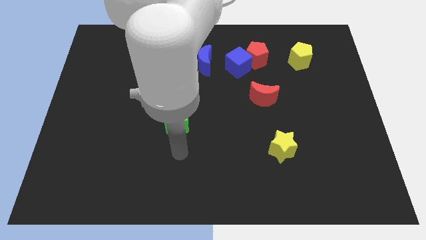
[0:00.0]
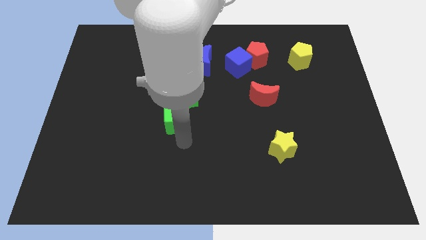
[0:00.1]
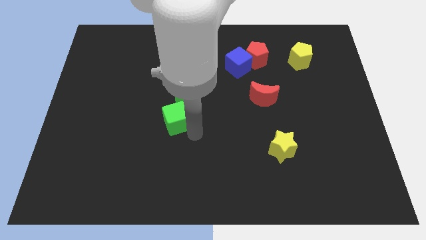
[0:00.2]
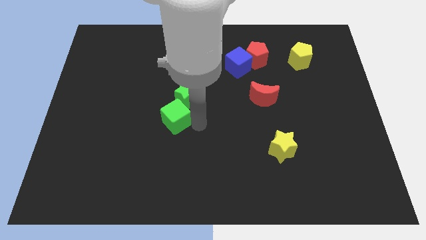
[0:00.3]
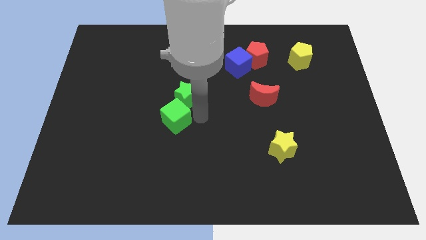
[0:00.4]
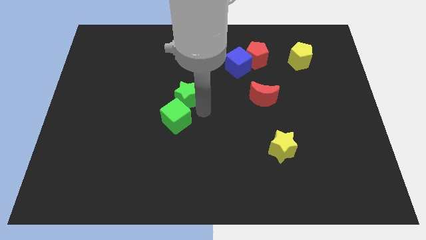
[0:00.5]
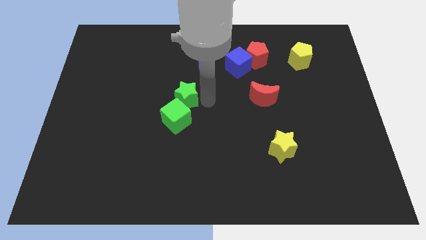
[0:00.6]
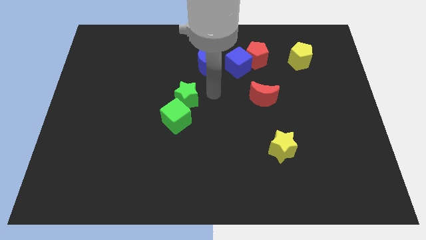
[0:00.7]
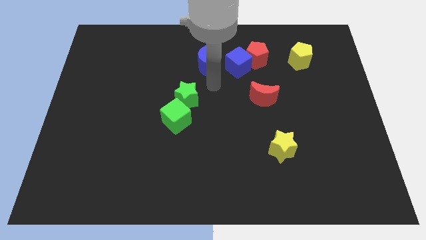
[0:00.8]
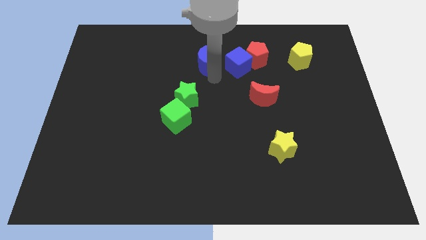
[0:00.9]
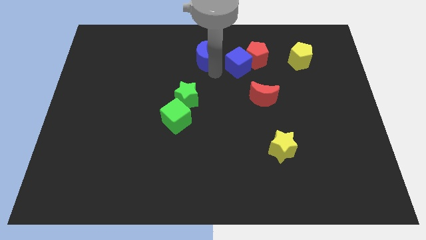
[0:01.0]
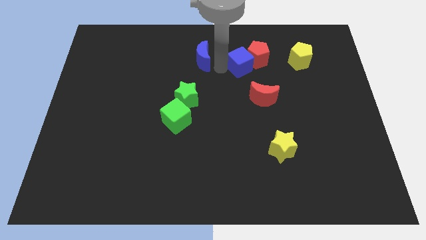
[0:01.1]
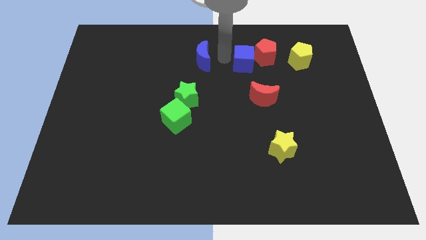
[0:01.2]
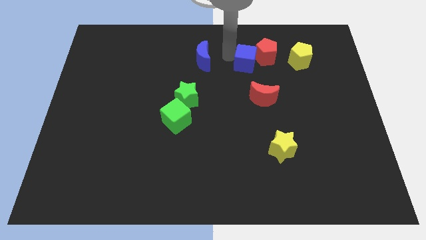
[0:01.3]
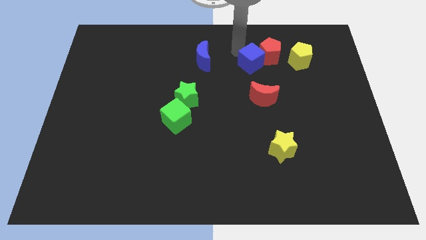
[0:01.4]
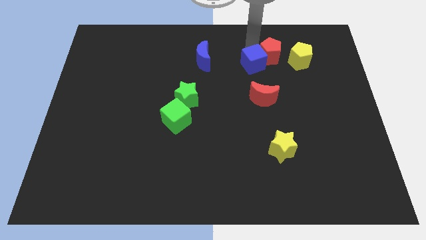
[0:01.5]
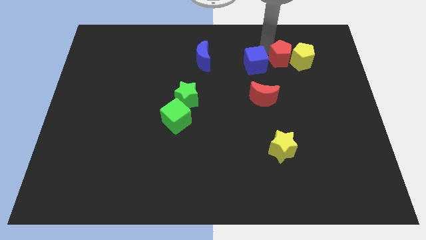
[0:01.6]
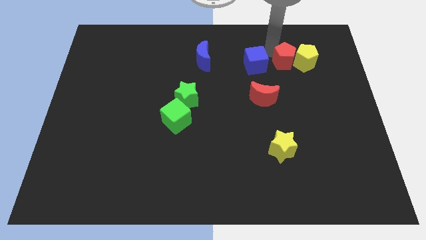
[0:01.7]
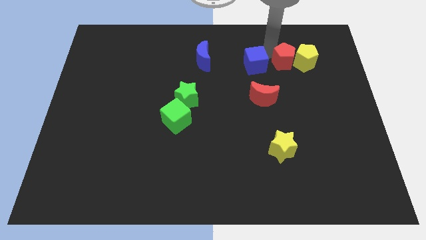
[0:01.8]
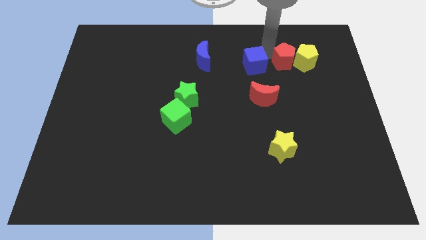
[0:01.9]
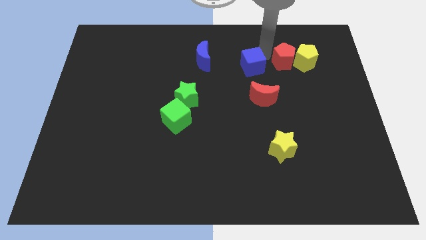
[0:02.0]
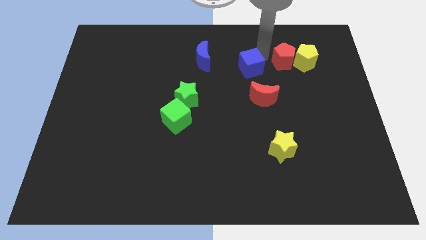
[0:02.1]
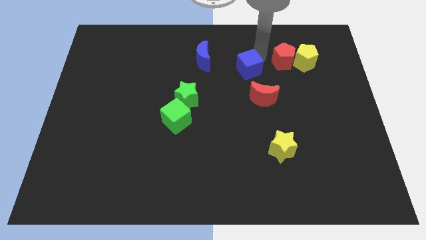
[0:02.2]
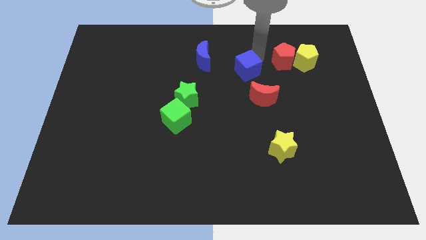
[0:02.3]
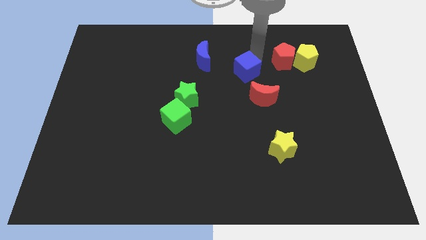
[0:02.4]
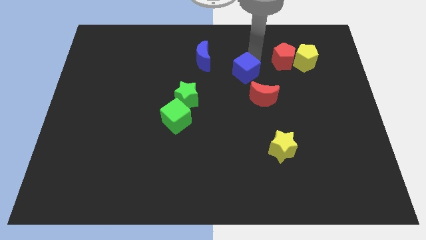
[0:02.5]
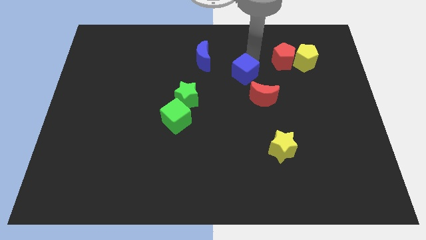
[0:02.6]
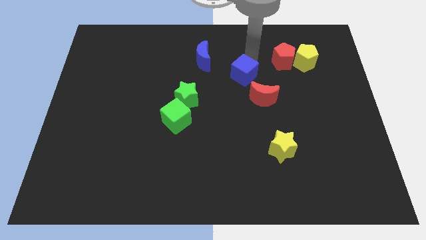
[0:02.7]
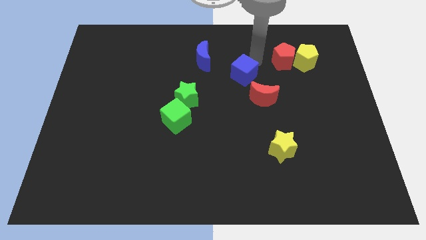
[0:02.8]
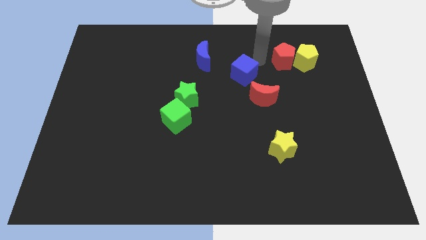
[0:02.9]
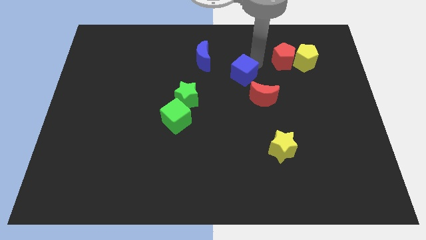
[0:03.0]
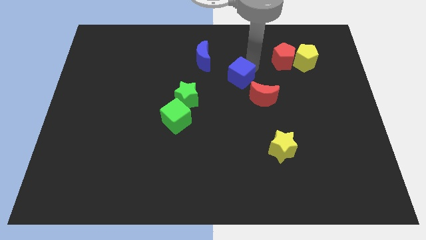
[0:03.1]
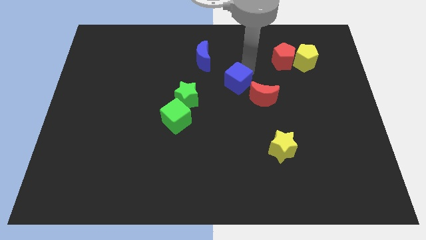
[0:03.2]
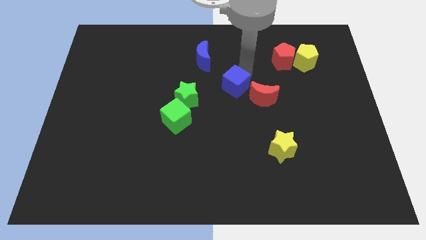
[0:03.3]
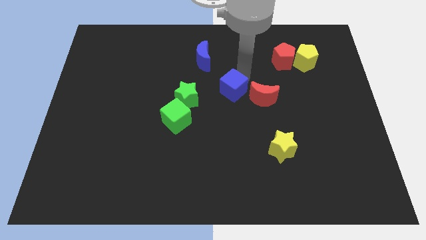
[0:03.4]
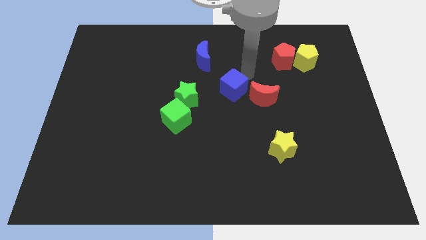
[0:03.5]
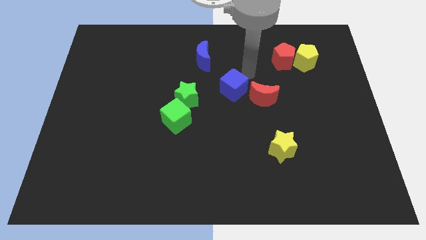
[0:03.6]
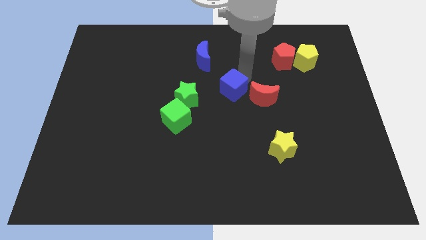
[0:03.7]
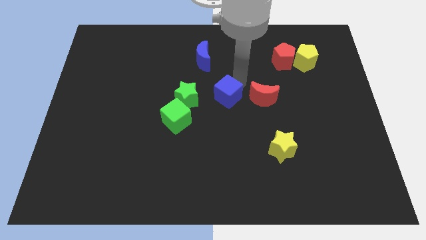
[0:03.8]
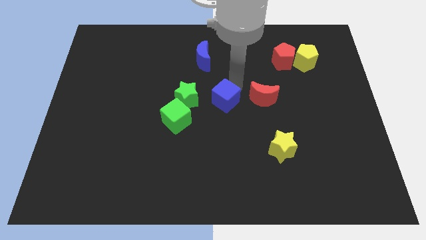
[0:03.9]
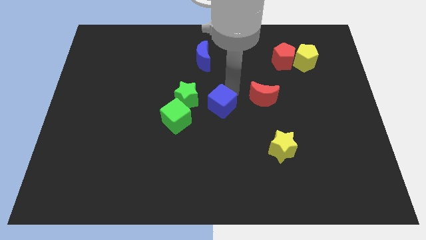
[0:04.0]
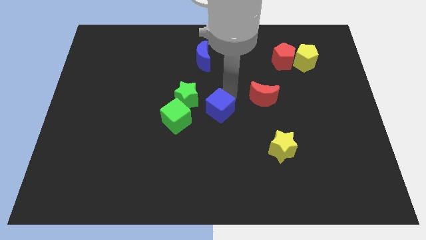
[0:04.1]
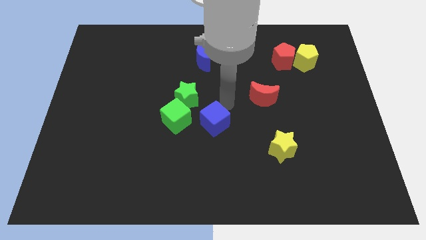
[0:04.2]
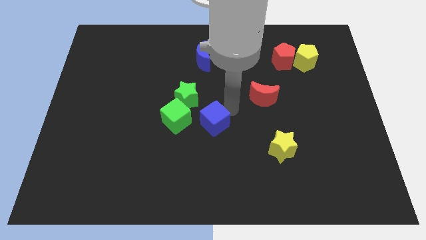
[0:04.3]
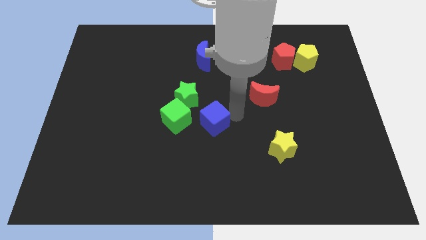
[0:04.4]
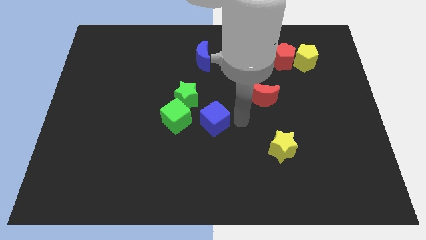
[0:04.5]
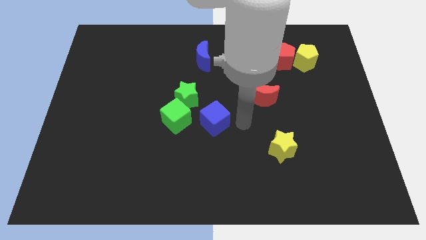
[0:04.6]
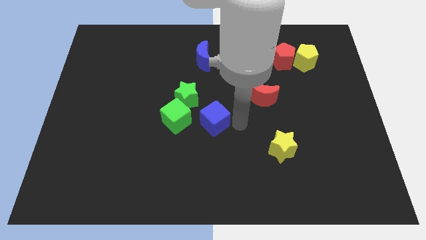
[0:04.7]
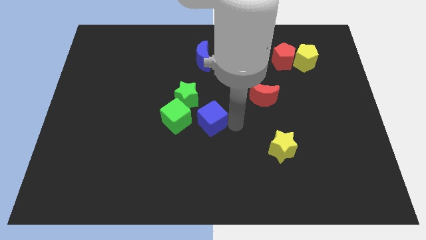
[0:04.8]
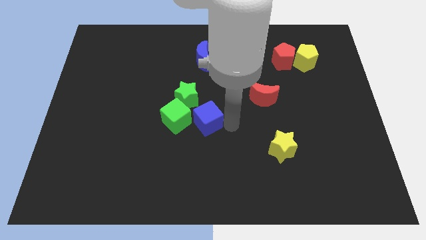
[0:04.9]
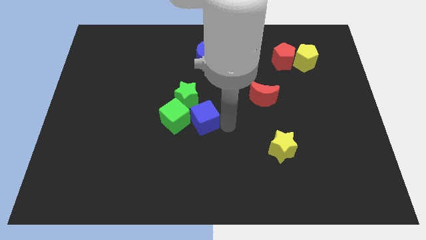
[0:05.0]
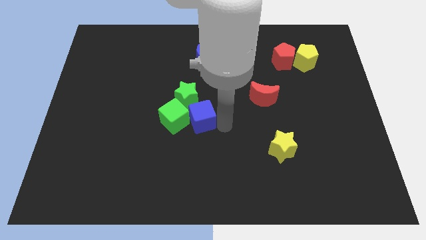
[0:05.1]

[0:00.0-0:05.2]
put the blue cube close to the green cube

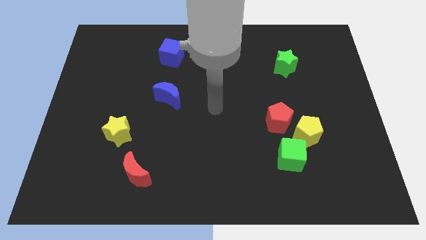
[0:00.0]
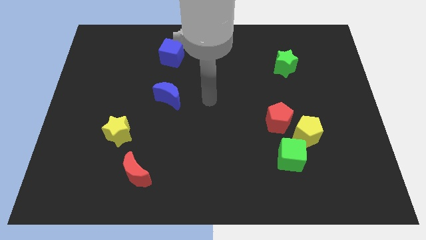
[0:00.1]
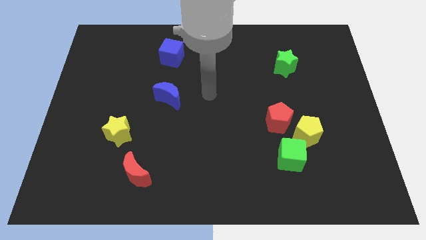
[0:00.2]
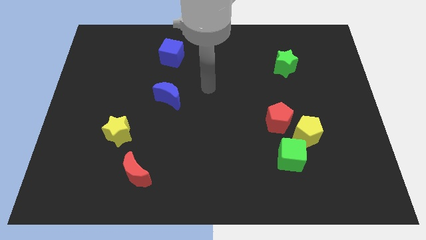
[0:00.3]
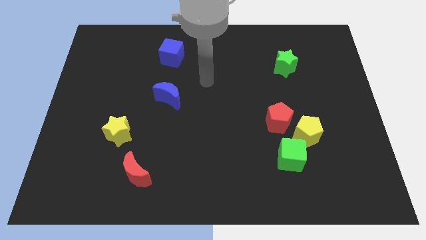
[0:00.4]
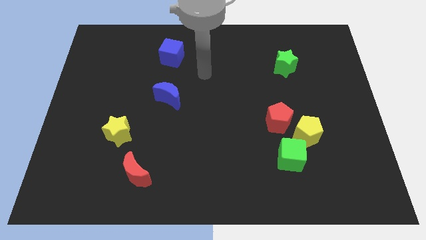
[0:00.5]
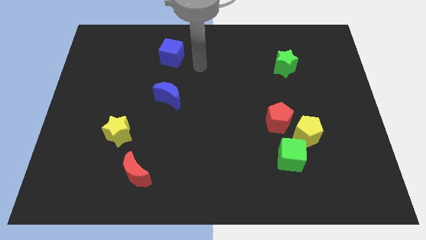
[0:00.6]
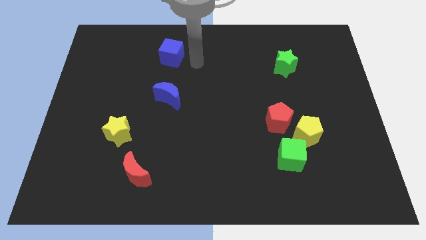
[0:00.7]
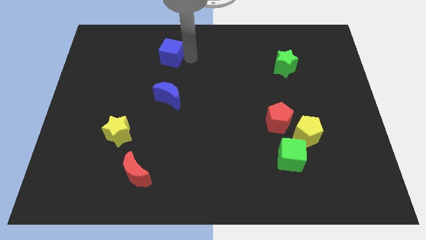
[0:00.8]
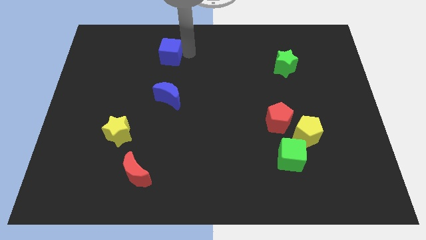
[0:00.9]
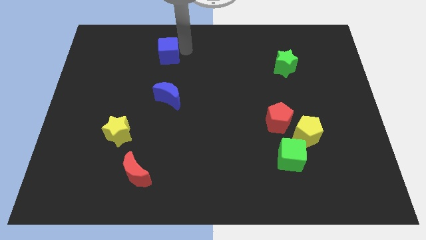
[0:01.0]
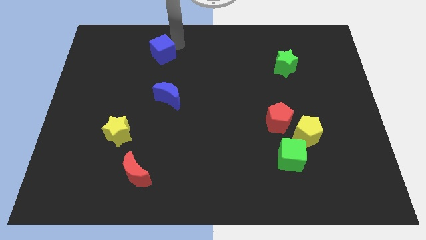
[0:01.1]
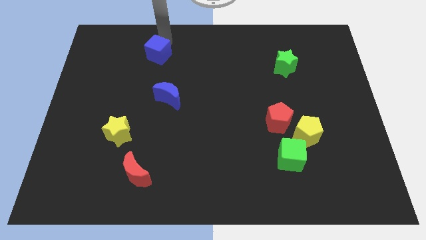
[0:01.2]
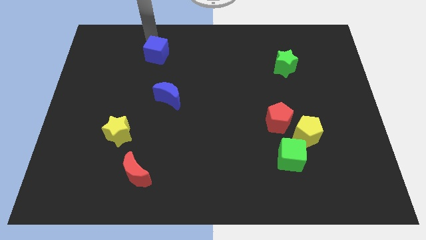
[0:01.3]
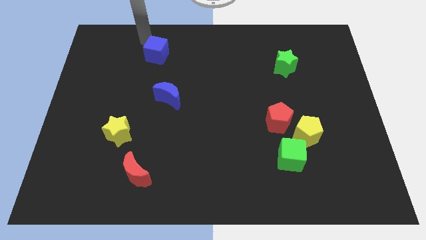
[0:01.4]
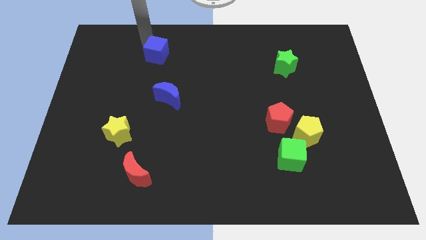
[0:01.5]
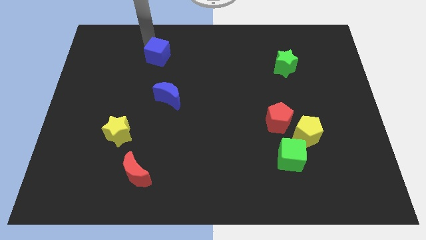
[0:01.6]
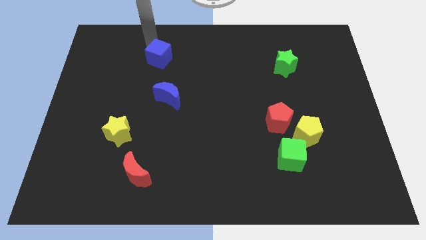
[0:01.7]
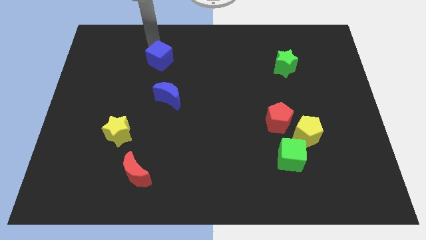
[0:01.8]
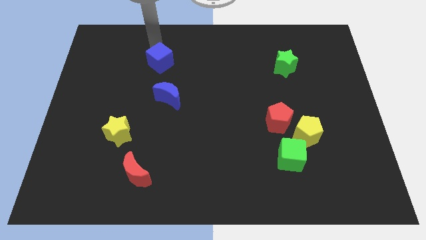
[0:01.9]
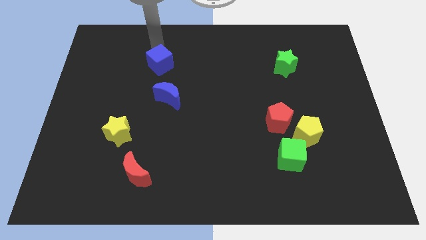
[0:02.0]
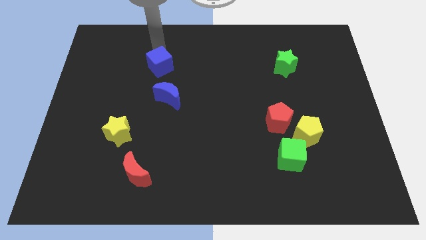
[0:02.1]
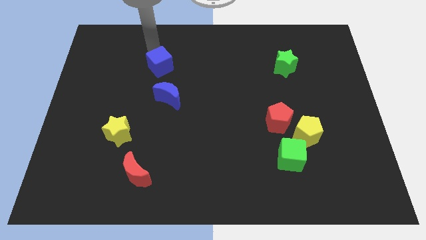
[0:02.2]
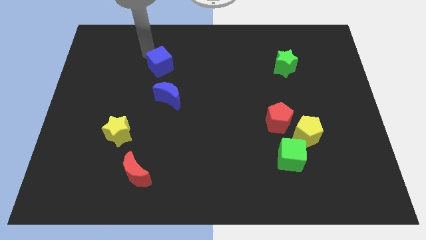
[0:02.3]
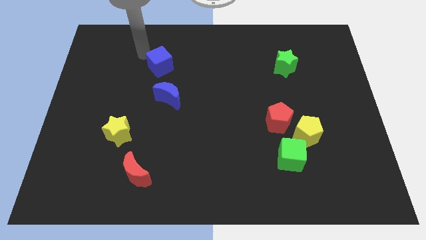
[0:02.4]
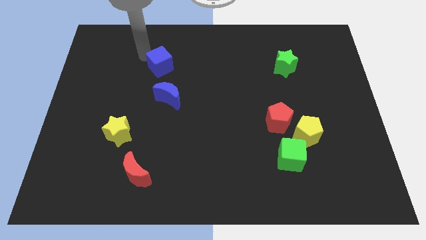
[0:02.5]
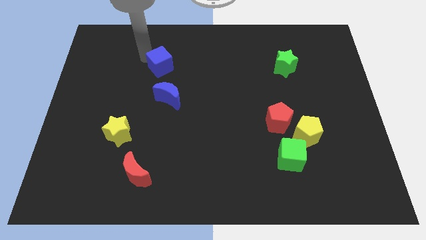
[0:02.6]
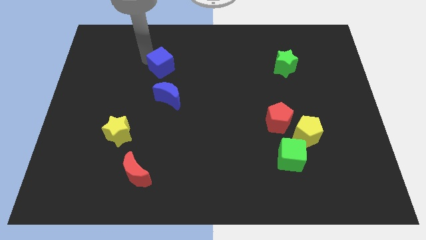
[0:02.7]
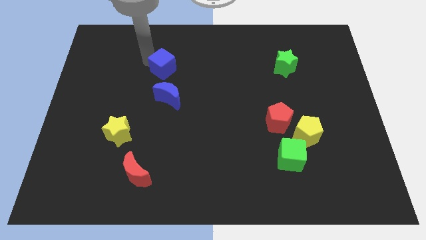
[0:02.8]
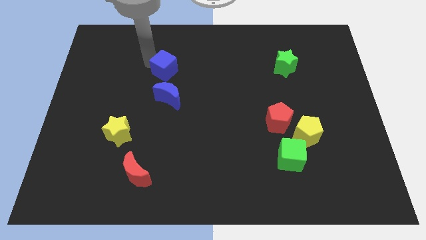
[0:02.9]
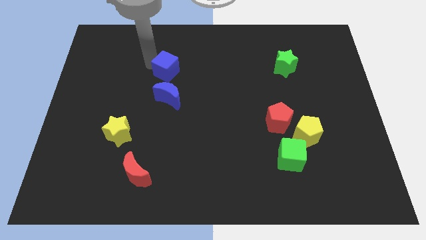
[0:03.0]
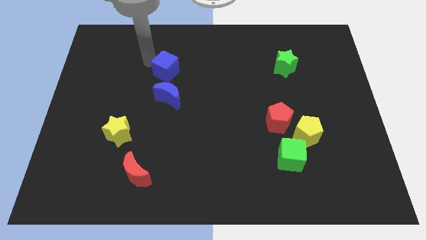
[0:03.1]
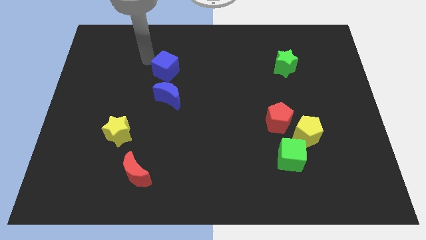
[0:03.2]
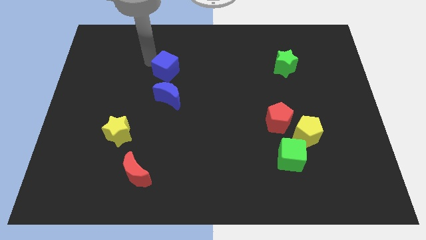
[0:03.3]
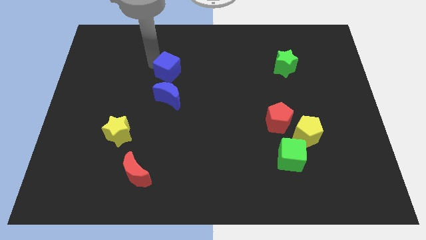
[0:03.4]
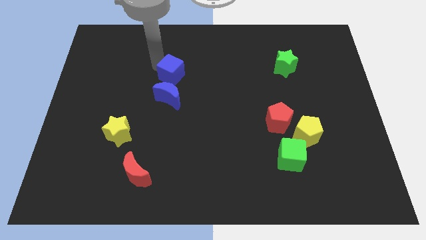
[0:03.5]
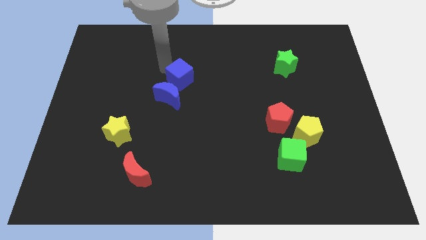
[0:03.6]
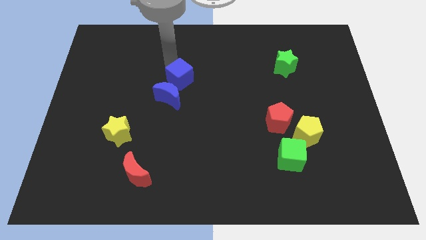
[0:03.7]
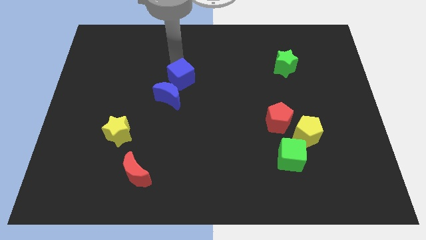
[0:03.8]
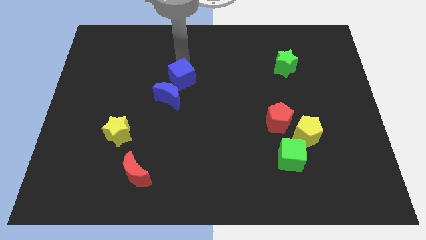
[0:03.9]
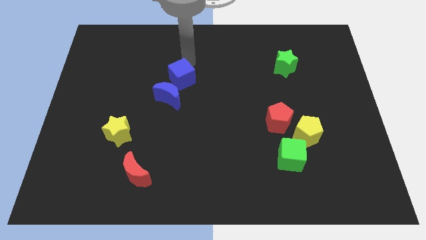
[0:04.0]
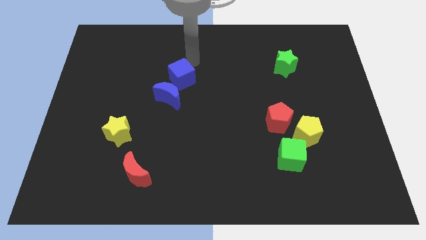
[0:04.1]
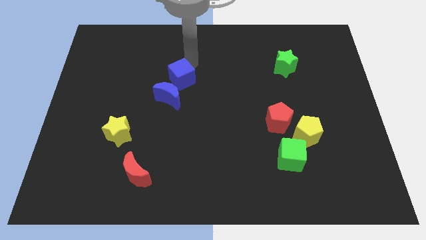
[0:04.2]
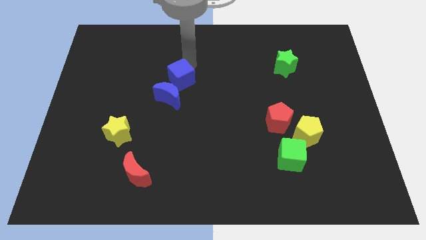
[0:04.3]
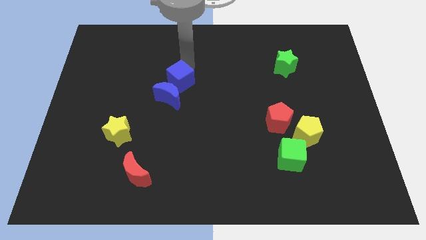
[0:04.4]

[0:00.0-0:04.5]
push the blue cube next to the blue moon
